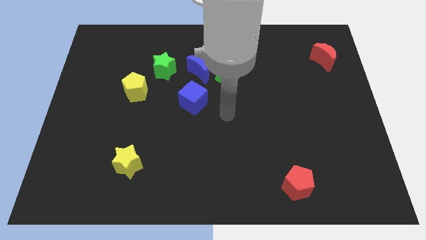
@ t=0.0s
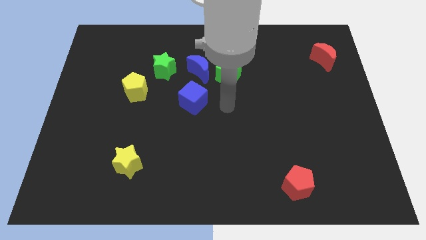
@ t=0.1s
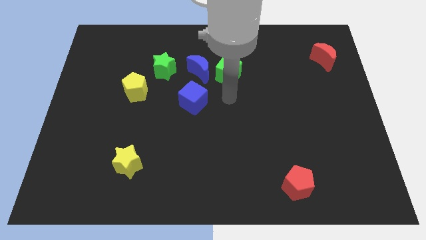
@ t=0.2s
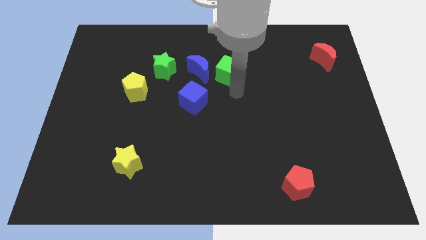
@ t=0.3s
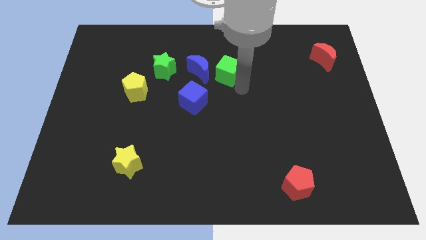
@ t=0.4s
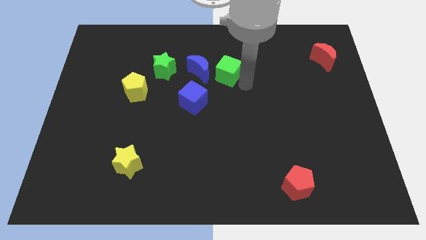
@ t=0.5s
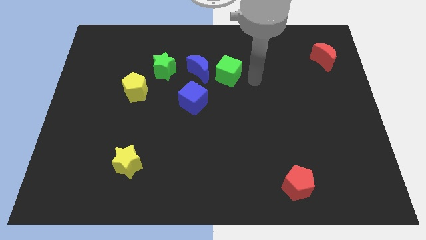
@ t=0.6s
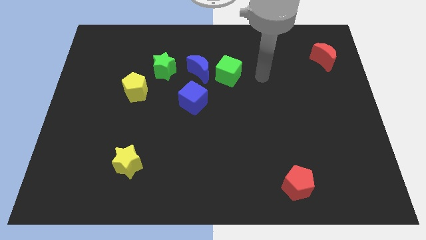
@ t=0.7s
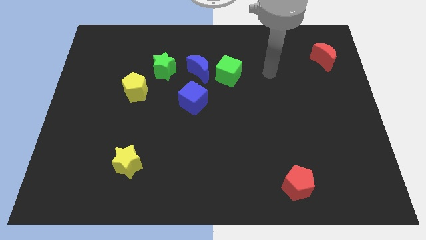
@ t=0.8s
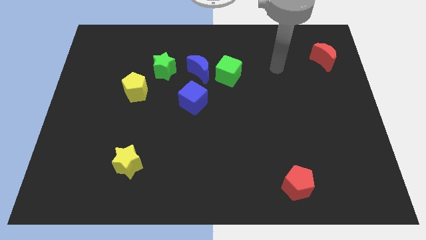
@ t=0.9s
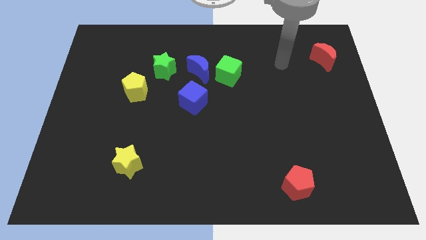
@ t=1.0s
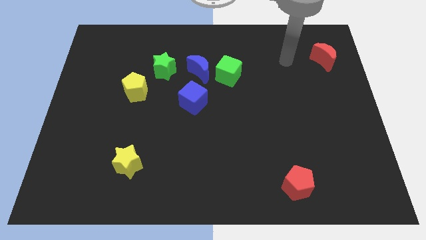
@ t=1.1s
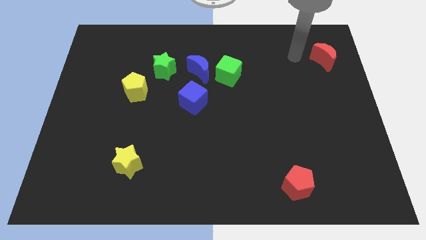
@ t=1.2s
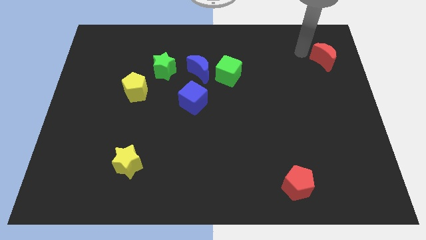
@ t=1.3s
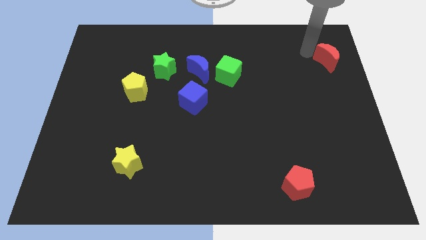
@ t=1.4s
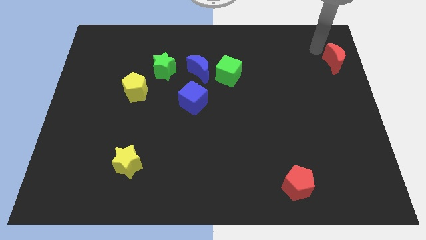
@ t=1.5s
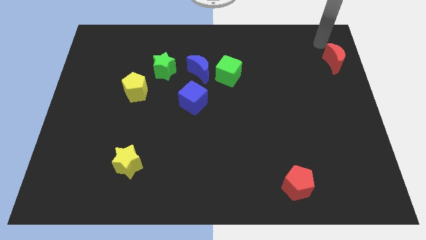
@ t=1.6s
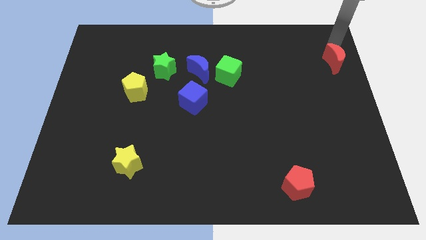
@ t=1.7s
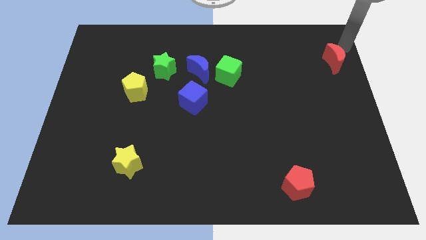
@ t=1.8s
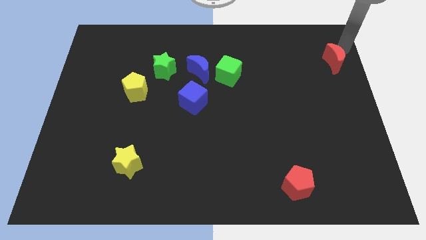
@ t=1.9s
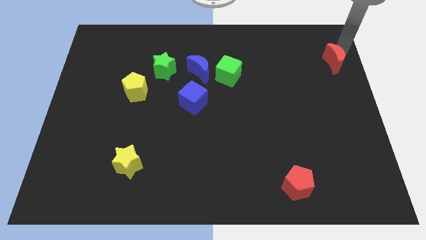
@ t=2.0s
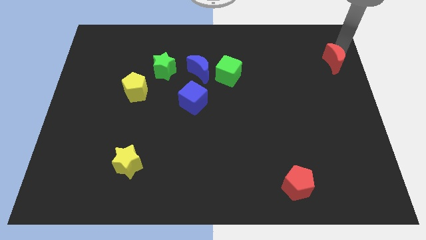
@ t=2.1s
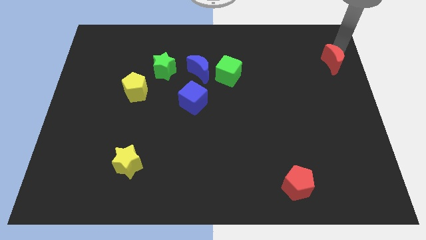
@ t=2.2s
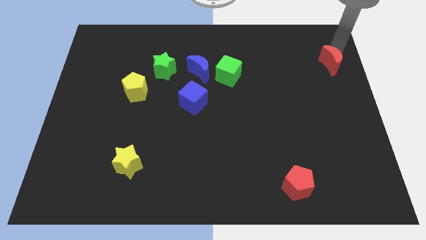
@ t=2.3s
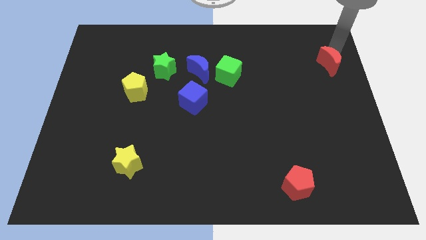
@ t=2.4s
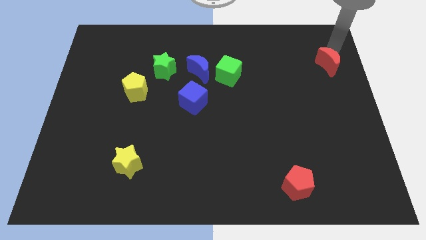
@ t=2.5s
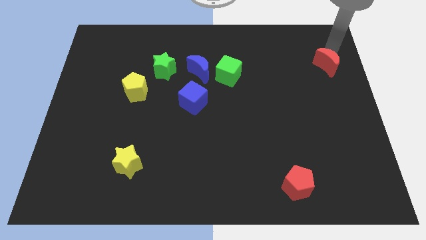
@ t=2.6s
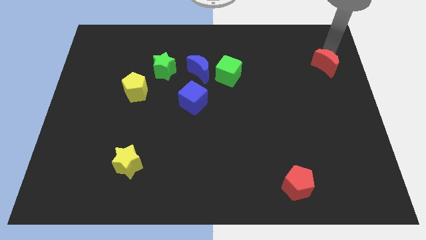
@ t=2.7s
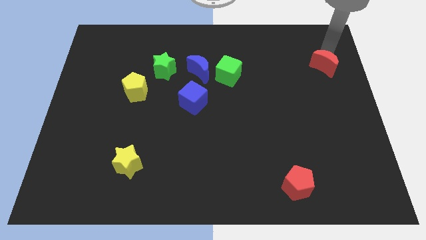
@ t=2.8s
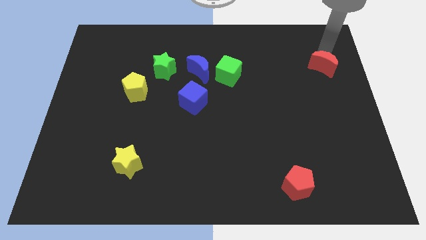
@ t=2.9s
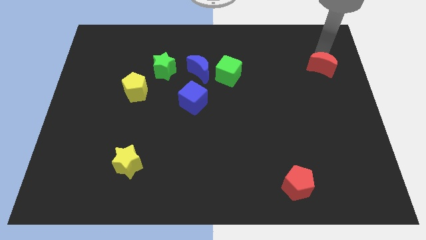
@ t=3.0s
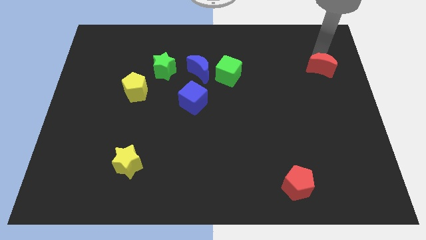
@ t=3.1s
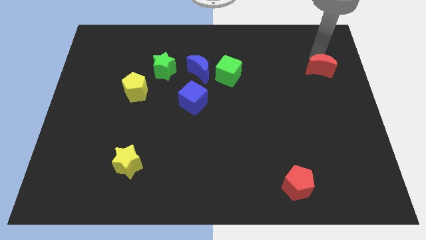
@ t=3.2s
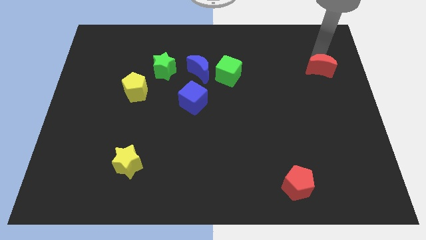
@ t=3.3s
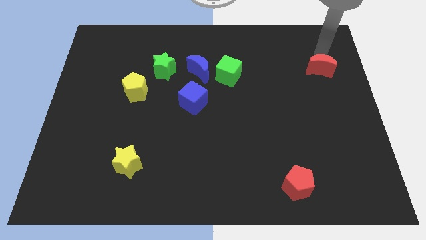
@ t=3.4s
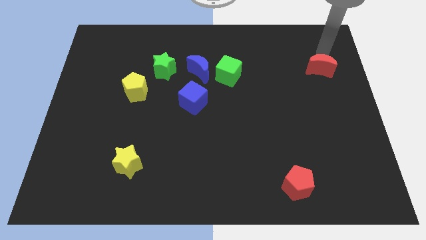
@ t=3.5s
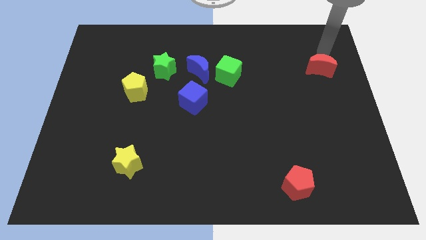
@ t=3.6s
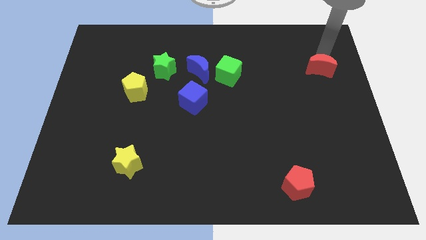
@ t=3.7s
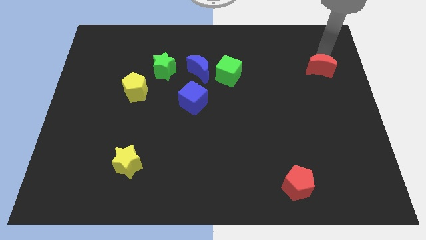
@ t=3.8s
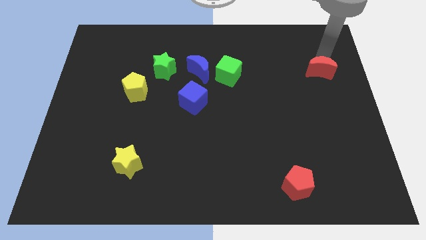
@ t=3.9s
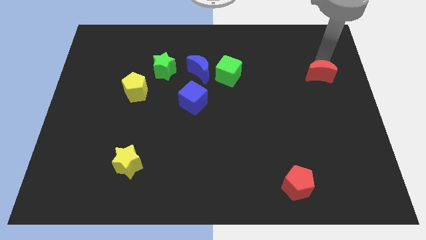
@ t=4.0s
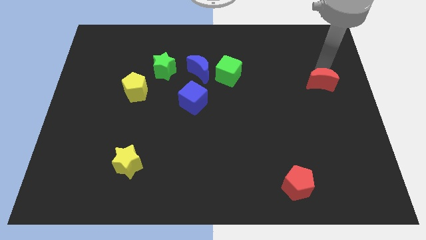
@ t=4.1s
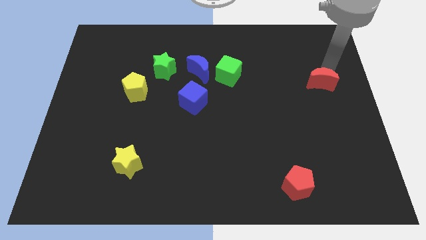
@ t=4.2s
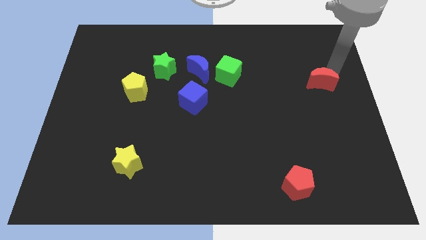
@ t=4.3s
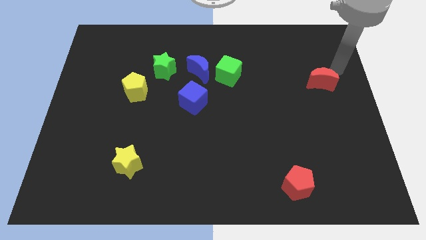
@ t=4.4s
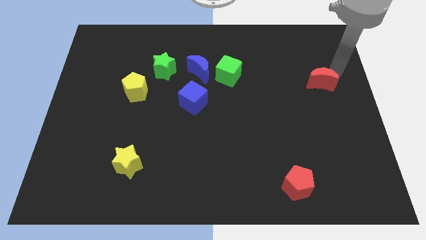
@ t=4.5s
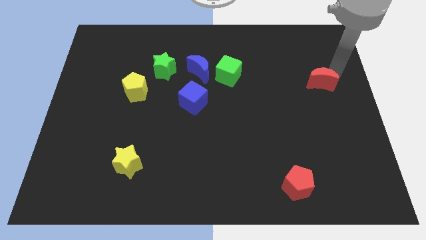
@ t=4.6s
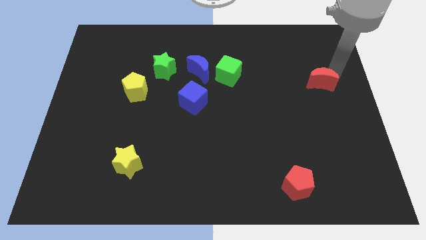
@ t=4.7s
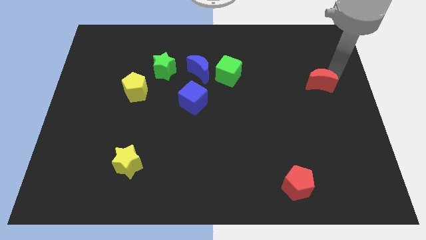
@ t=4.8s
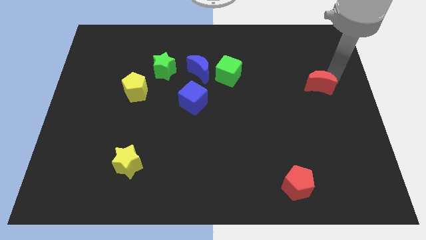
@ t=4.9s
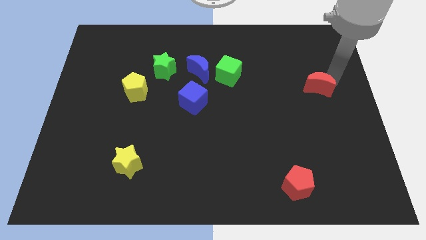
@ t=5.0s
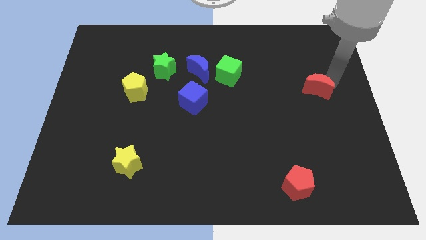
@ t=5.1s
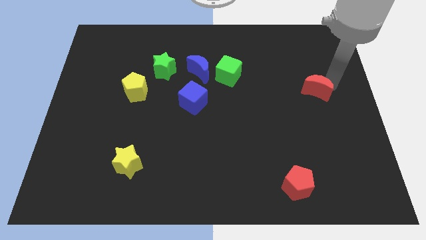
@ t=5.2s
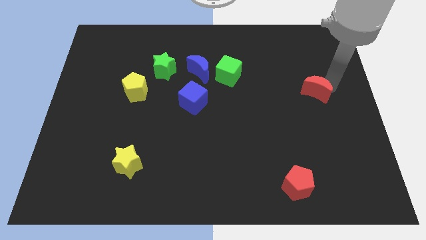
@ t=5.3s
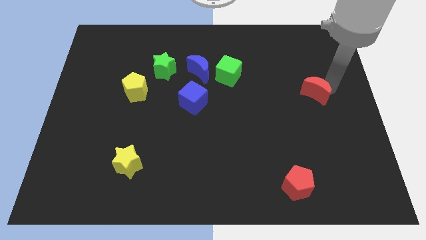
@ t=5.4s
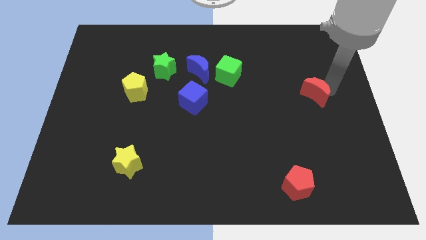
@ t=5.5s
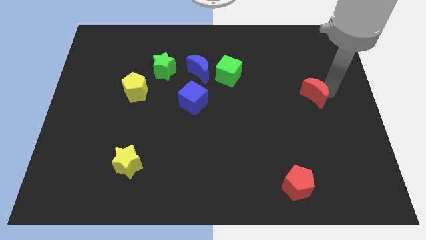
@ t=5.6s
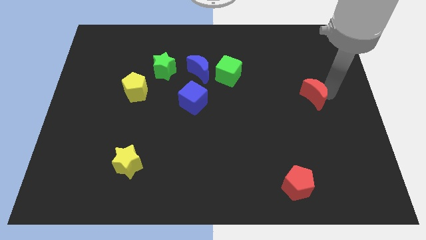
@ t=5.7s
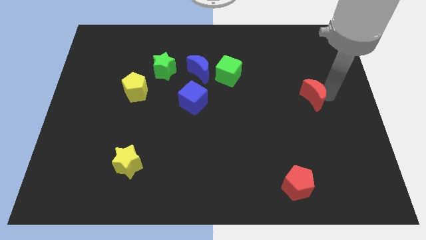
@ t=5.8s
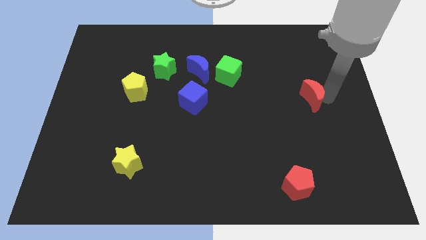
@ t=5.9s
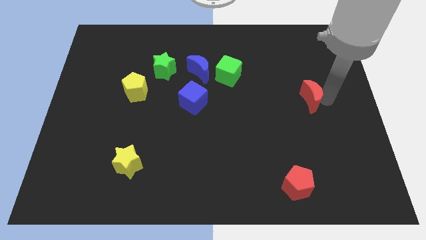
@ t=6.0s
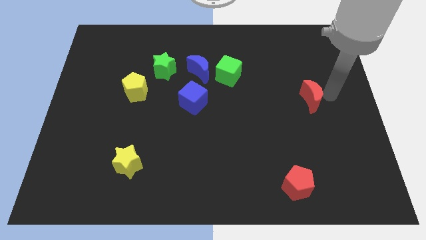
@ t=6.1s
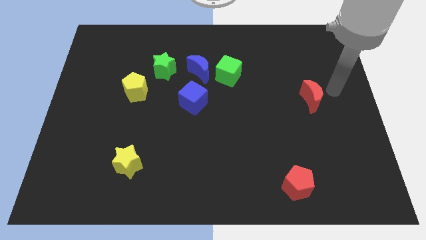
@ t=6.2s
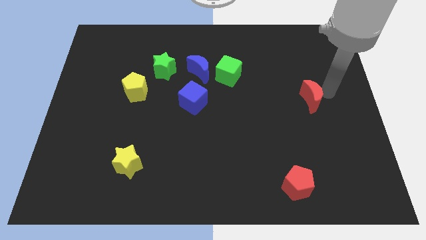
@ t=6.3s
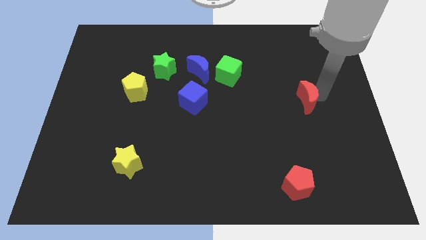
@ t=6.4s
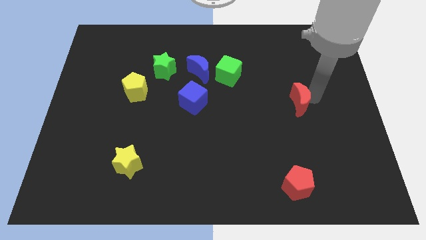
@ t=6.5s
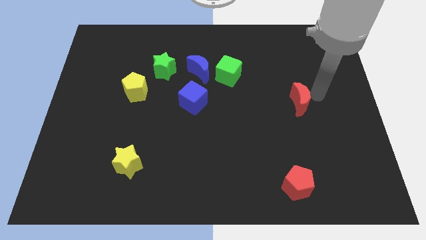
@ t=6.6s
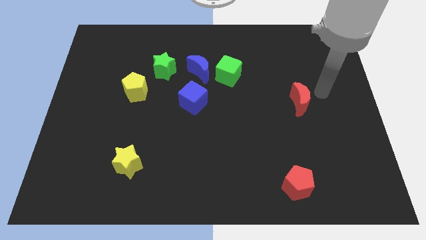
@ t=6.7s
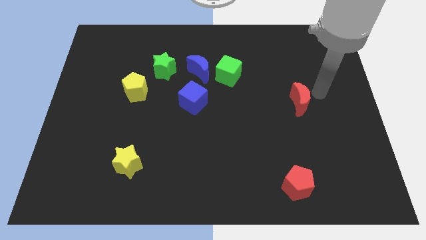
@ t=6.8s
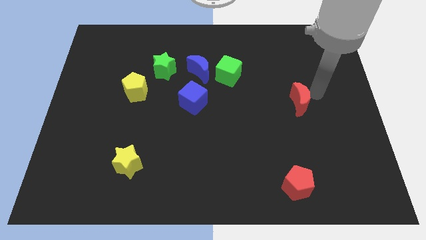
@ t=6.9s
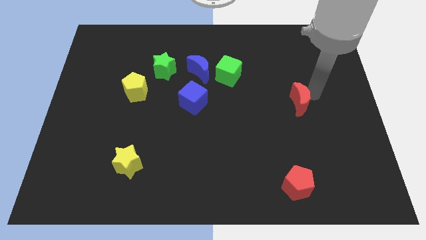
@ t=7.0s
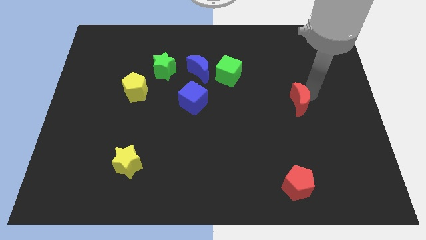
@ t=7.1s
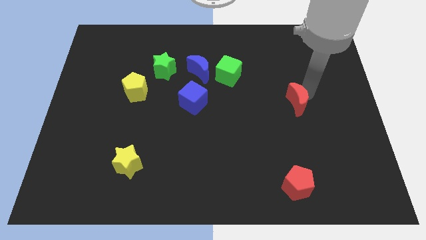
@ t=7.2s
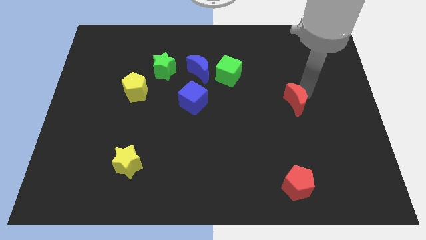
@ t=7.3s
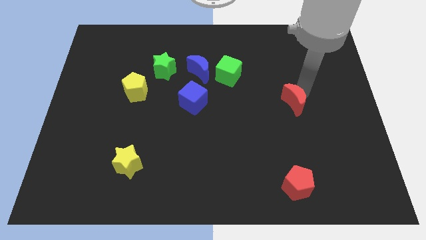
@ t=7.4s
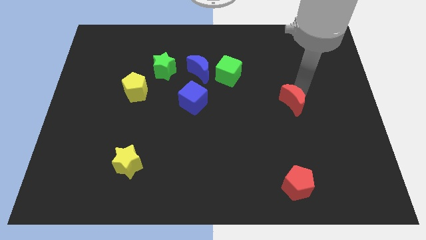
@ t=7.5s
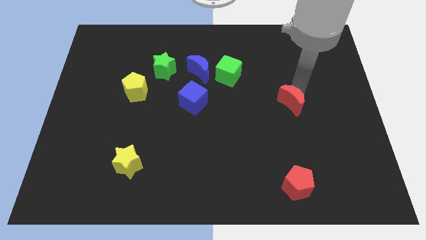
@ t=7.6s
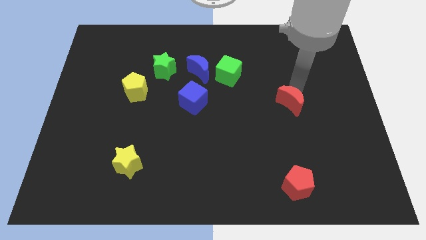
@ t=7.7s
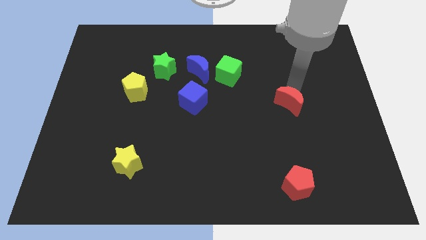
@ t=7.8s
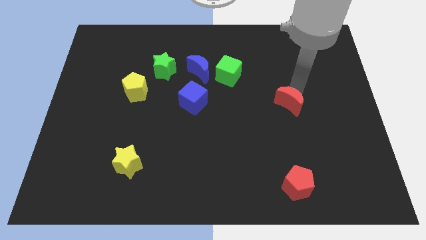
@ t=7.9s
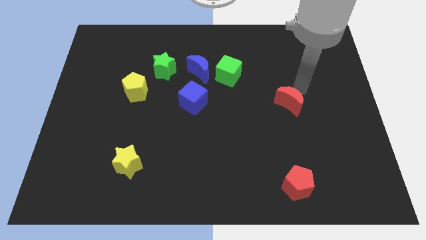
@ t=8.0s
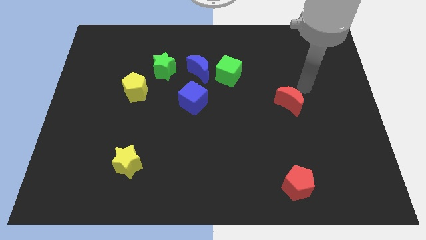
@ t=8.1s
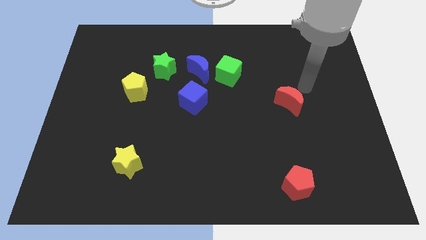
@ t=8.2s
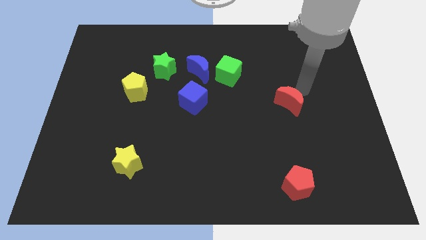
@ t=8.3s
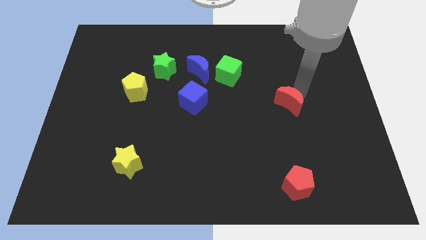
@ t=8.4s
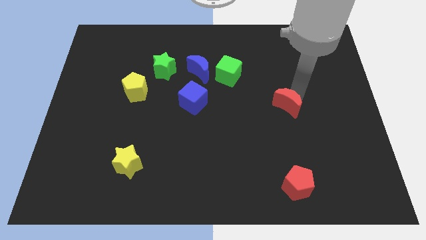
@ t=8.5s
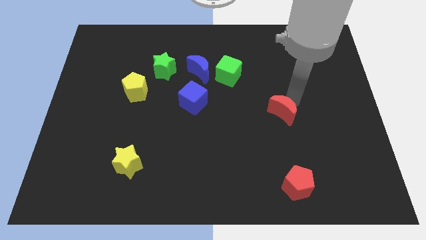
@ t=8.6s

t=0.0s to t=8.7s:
push the red moon diagonally downwards and left
